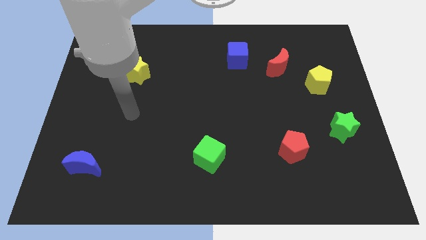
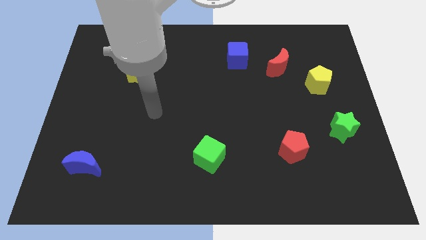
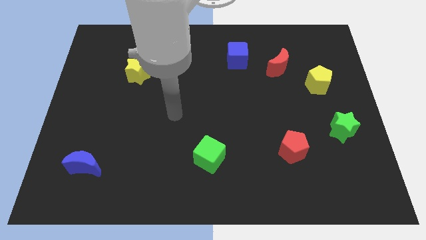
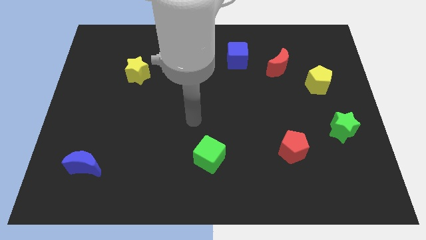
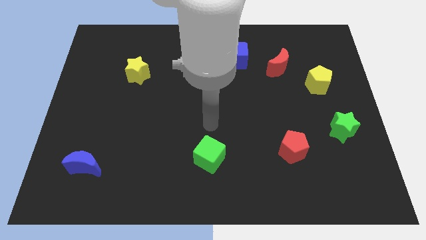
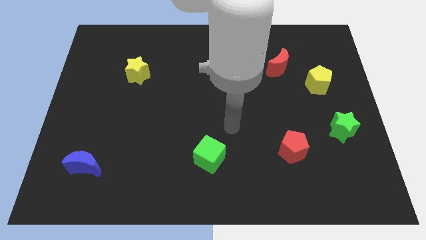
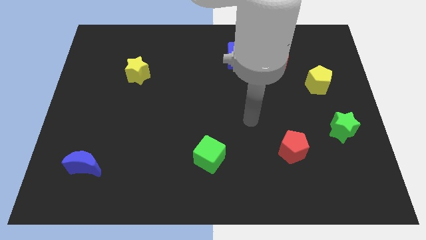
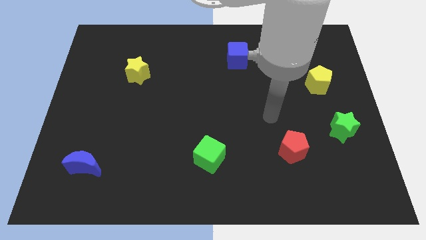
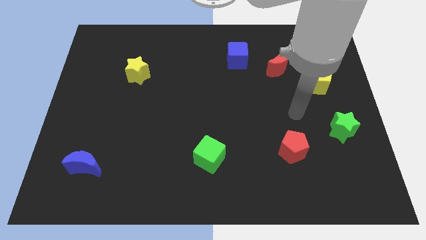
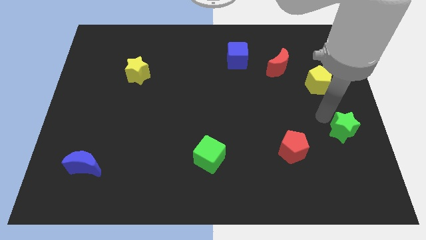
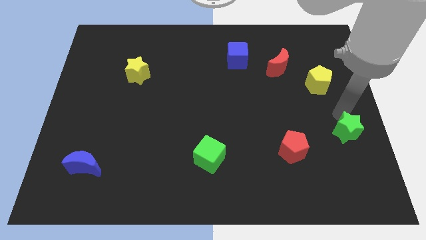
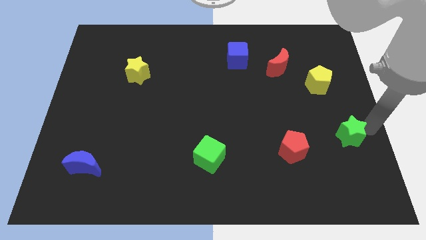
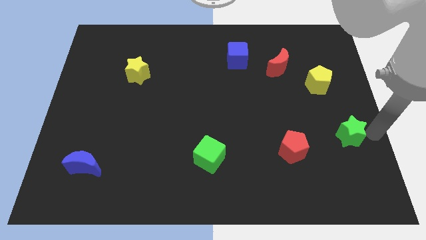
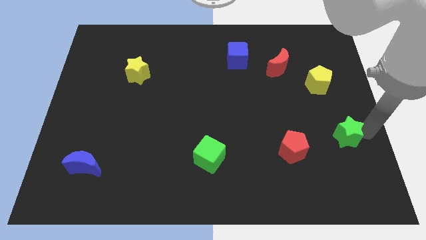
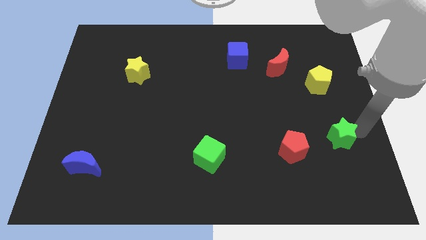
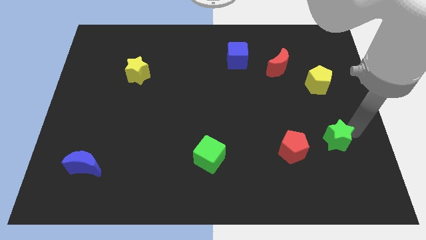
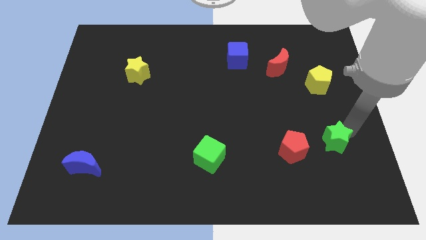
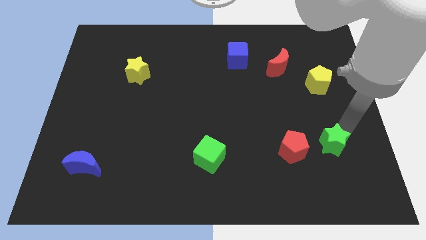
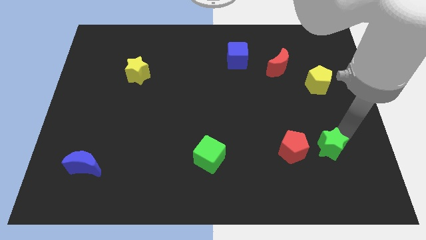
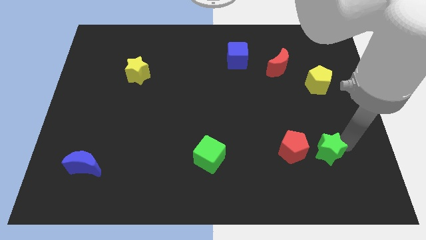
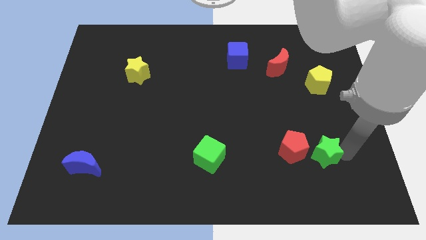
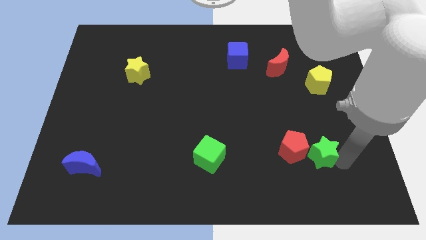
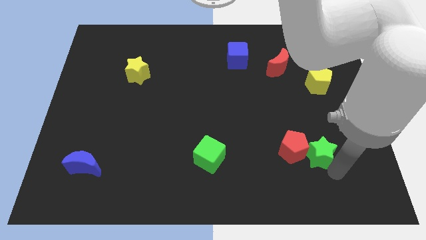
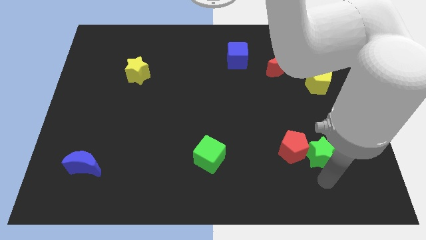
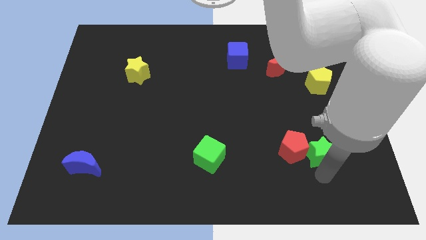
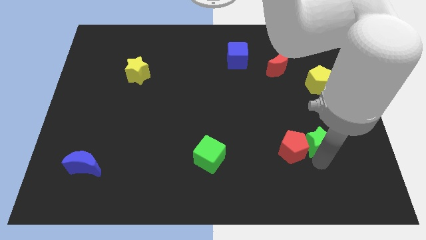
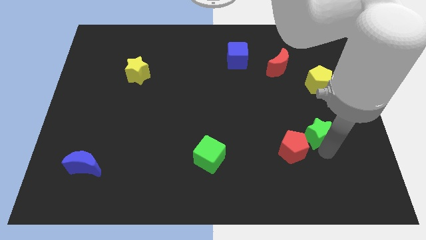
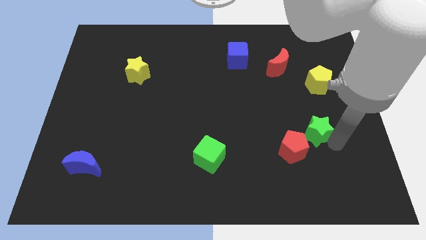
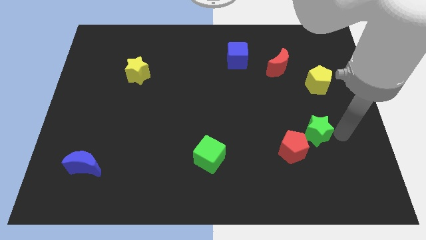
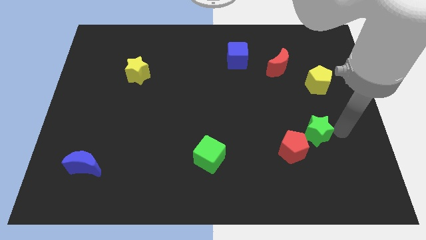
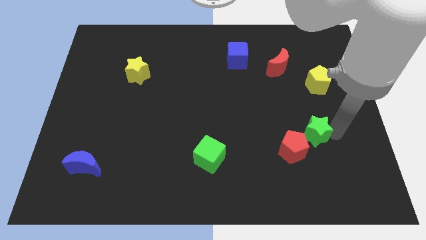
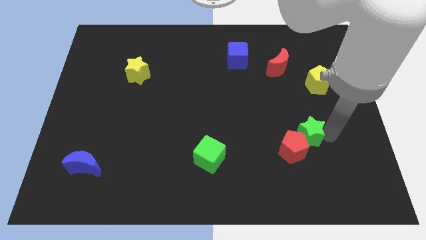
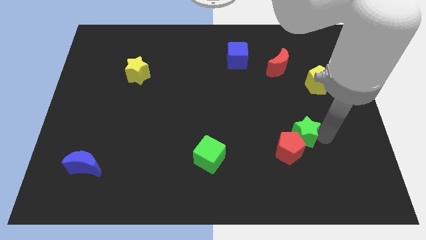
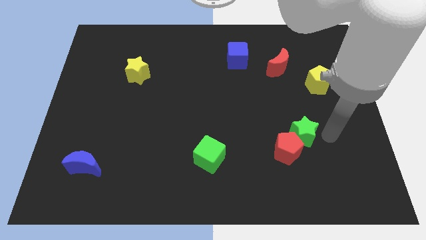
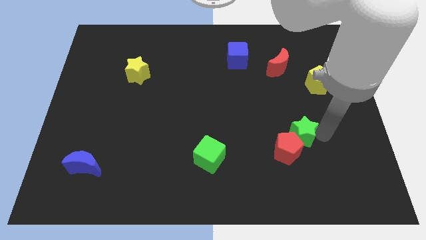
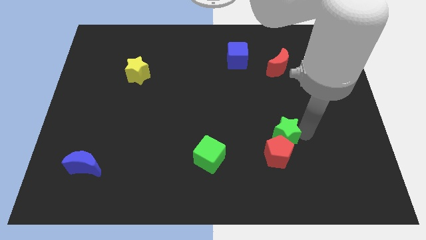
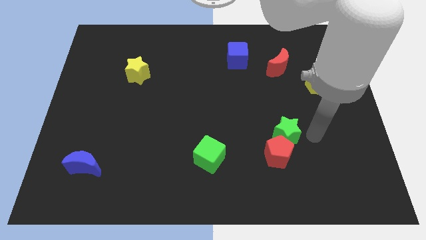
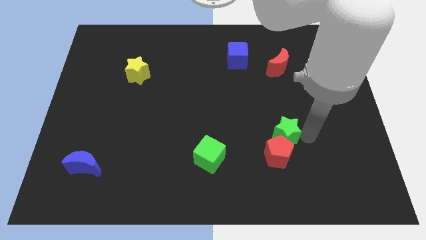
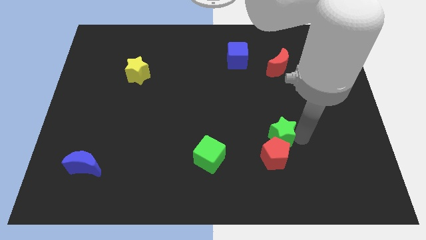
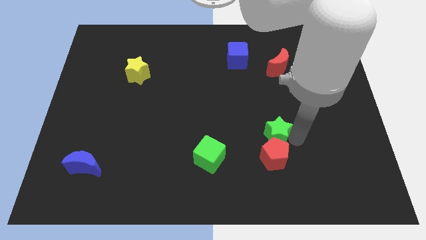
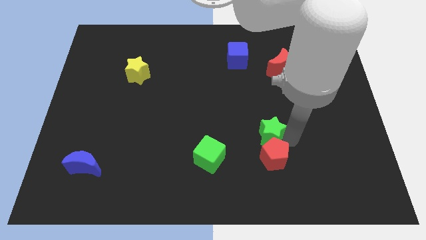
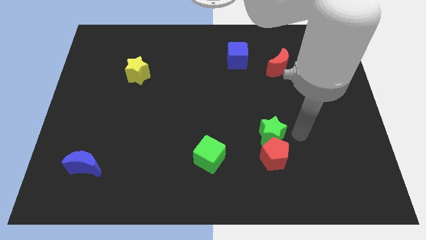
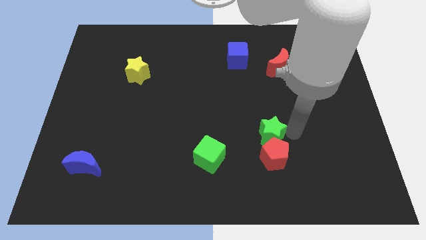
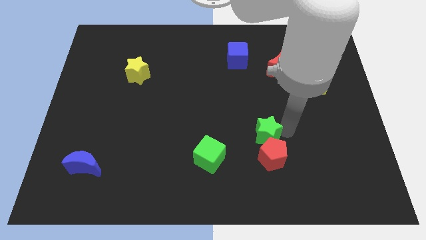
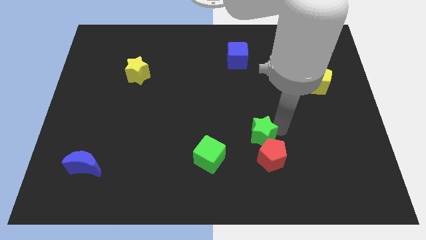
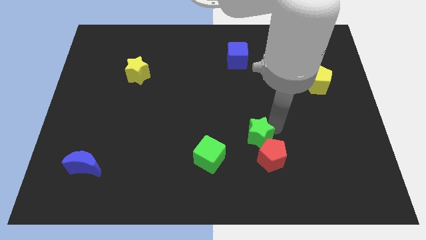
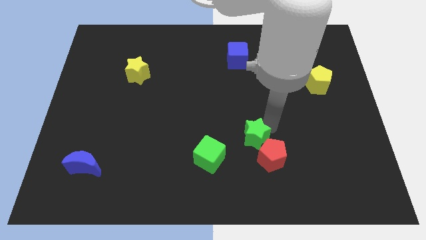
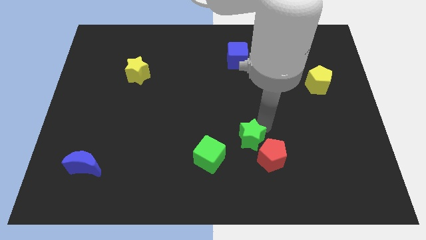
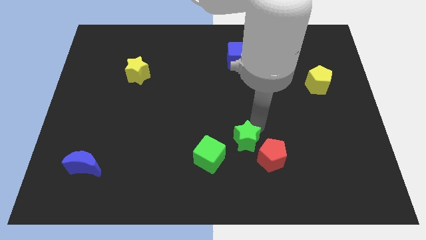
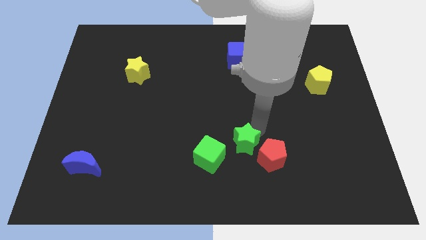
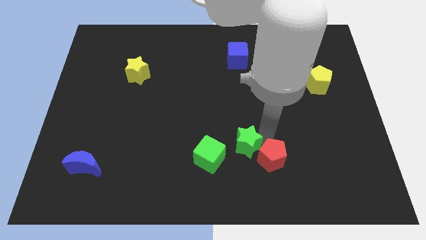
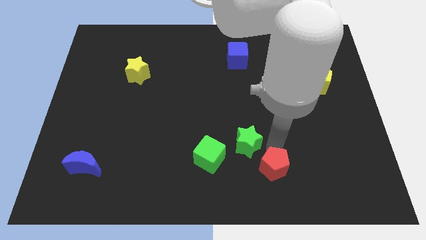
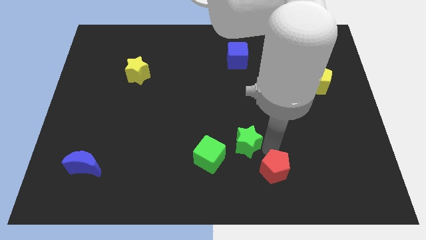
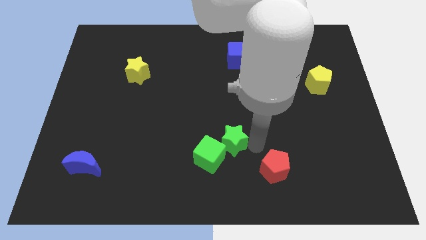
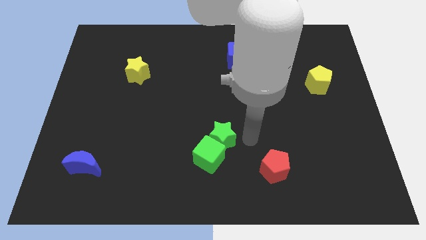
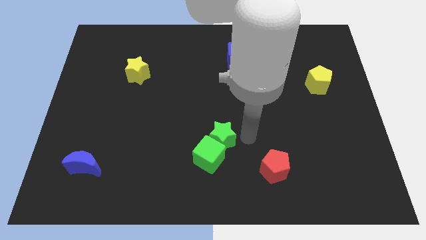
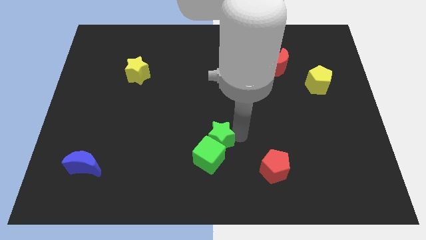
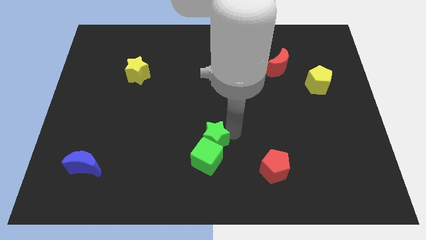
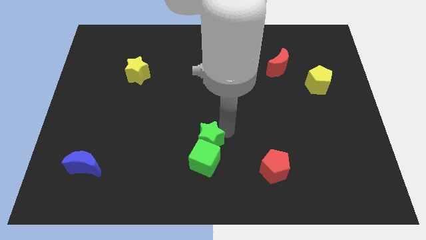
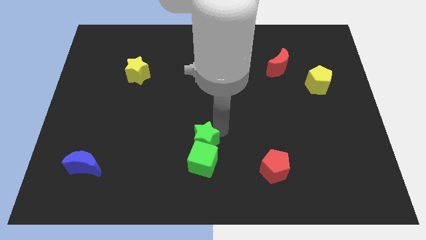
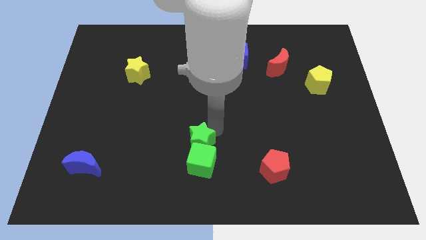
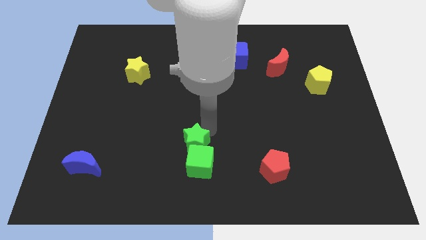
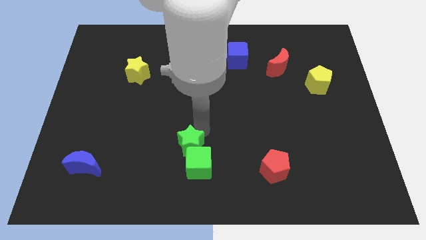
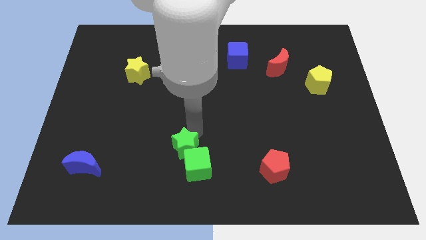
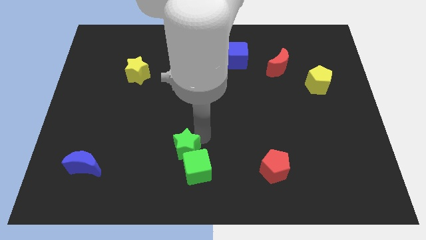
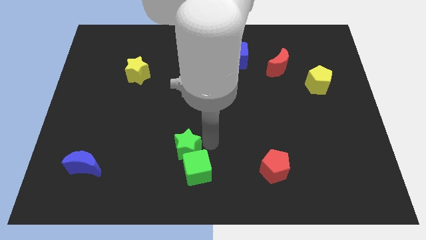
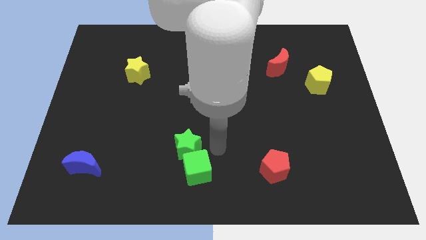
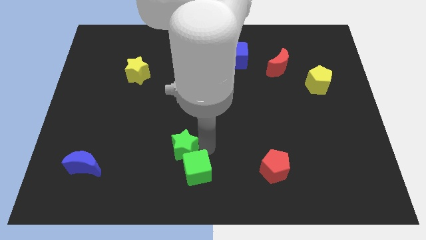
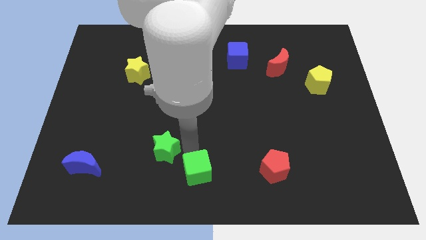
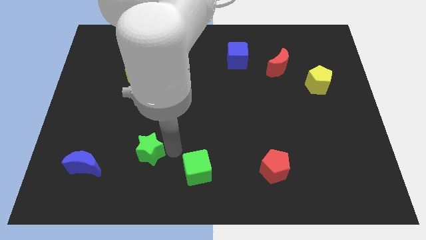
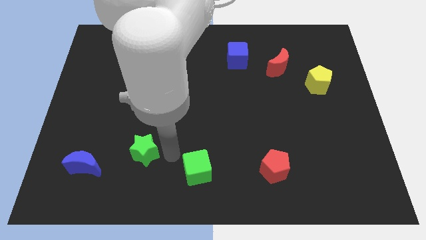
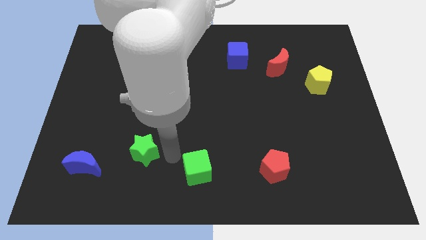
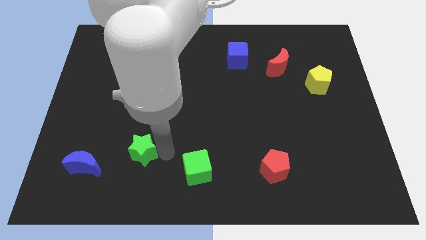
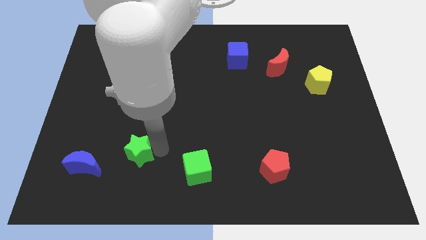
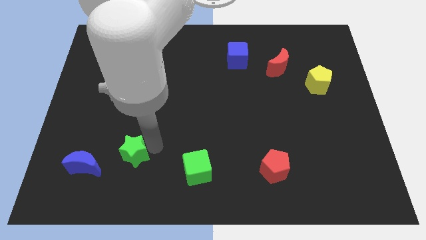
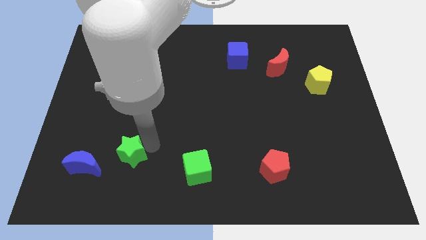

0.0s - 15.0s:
put the green star to the top right of the blue moon
